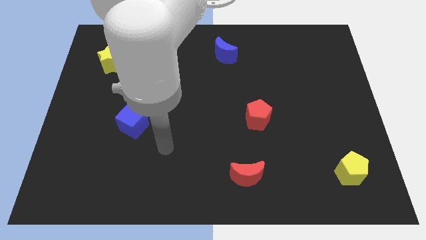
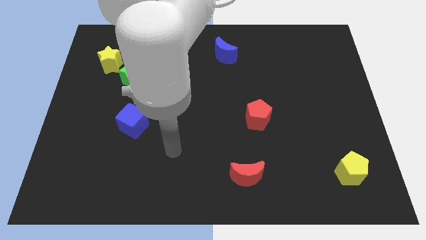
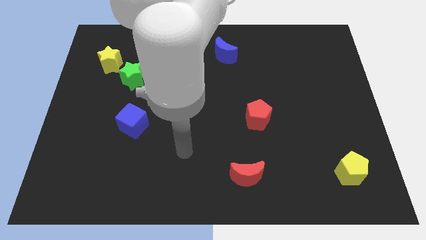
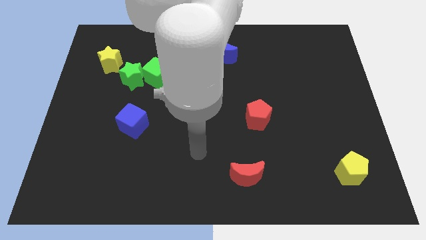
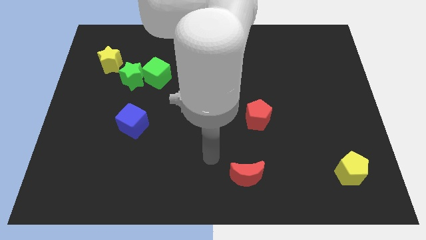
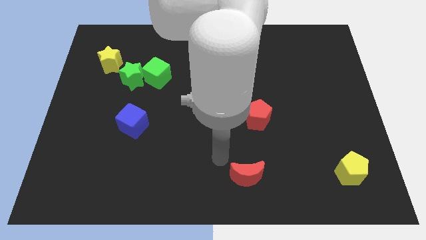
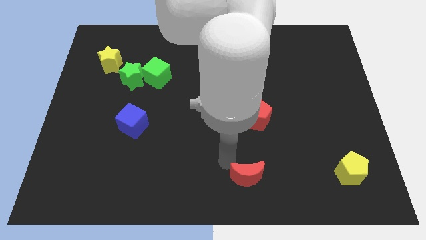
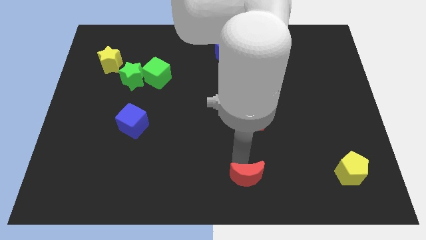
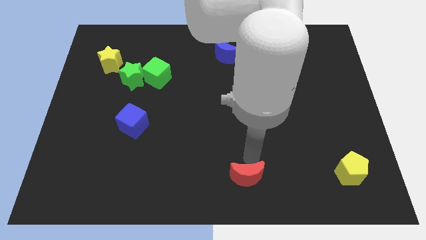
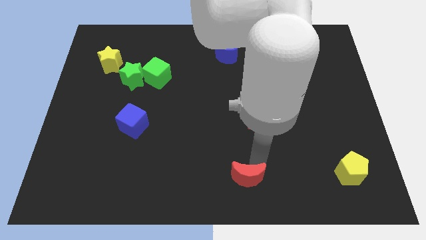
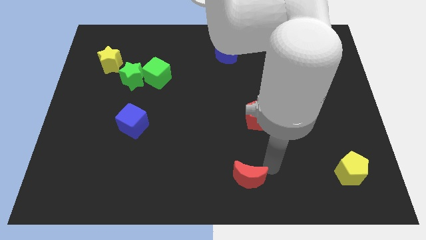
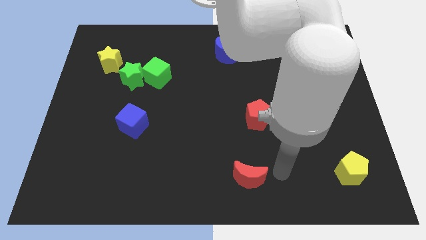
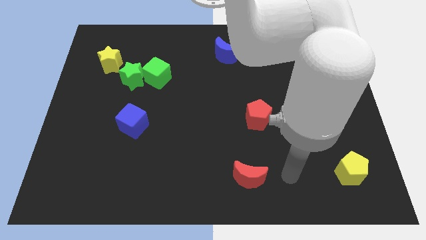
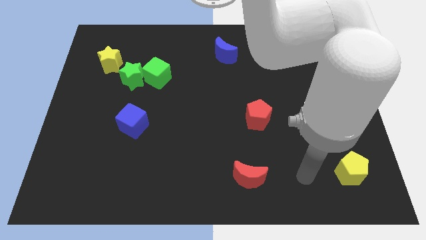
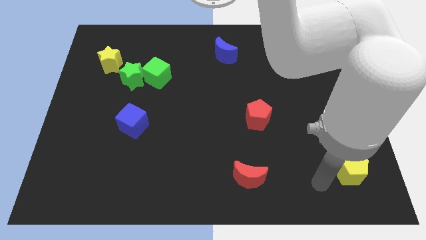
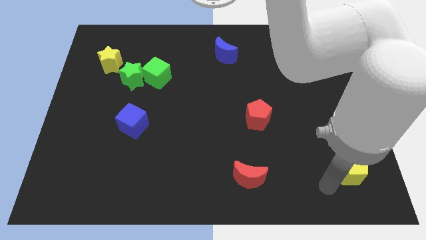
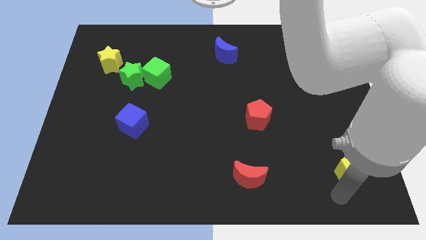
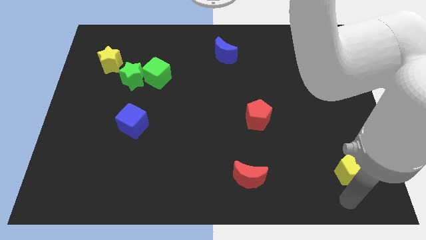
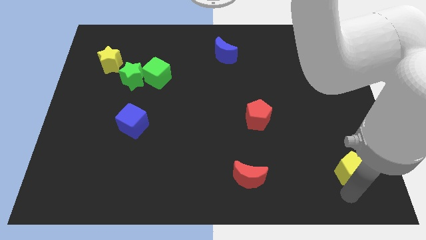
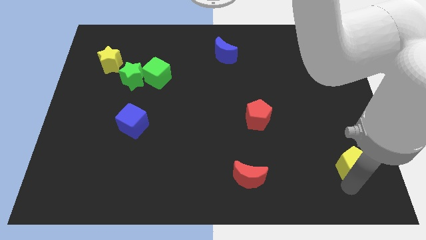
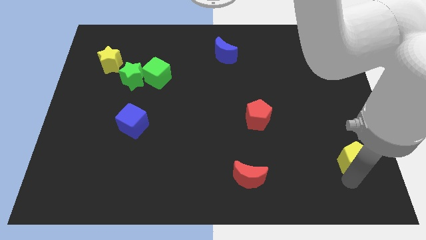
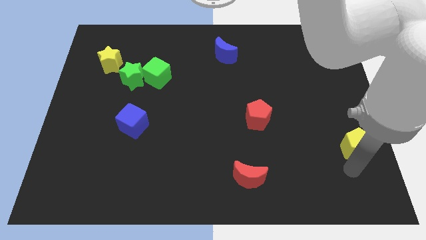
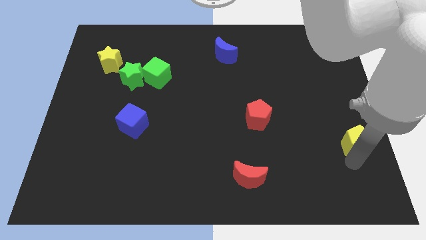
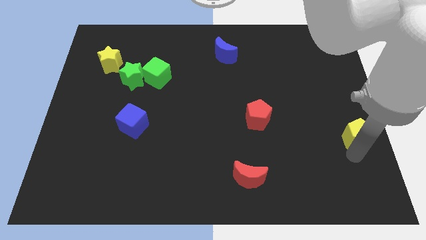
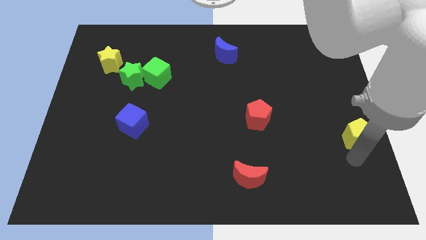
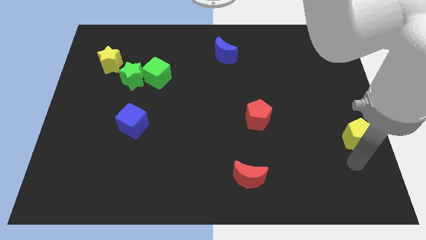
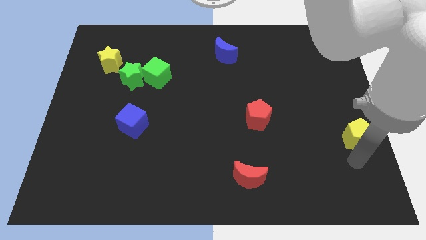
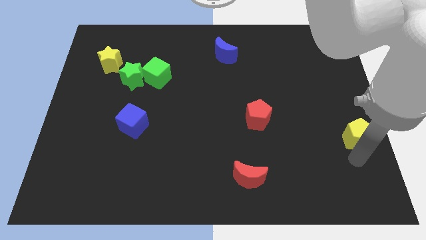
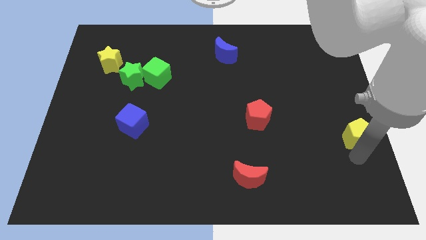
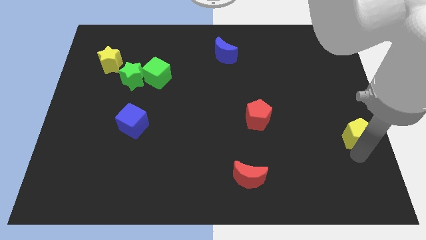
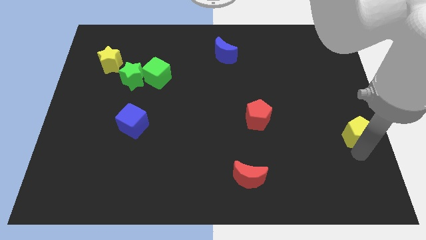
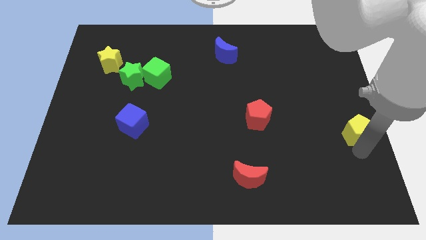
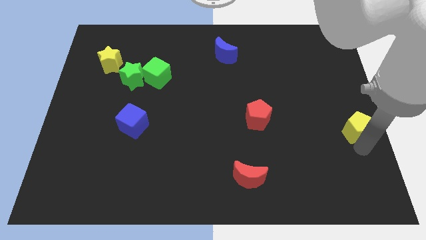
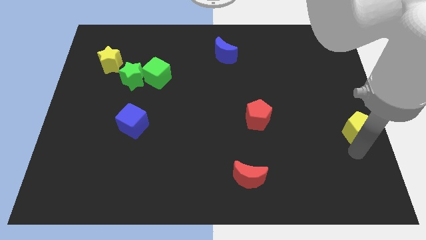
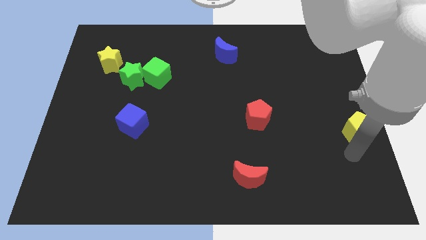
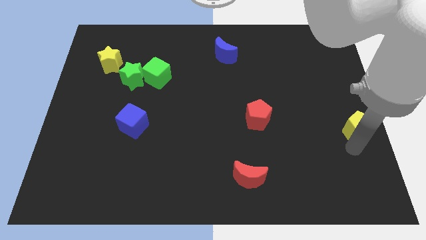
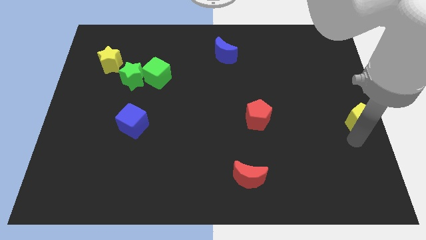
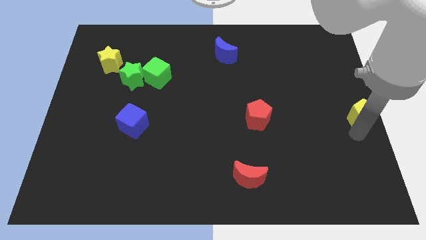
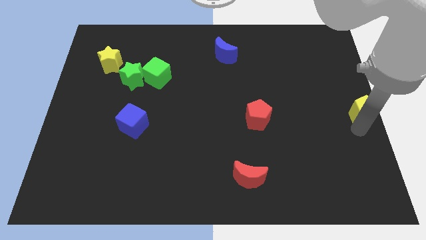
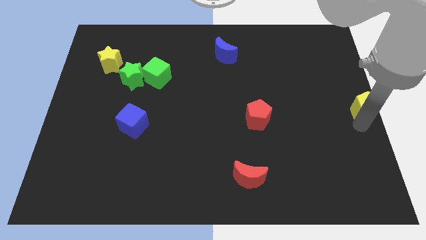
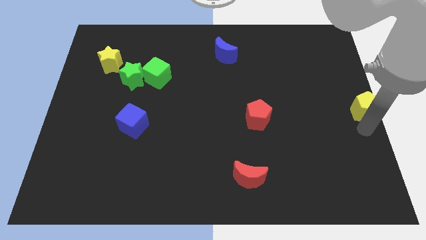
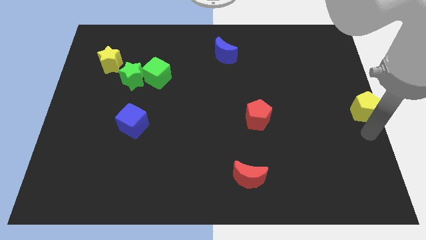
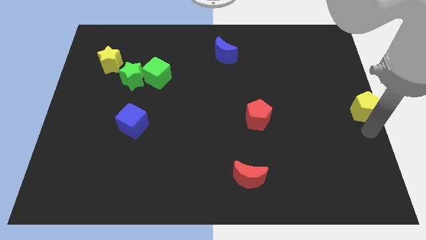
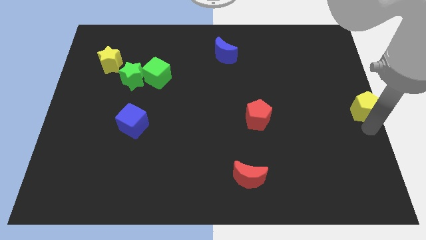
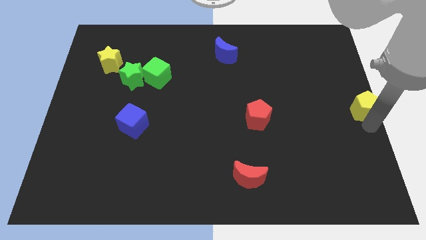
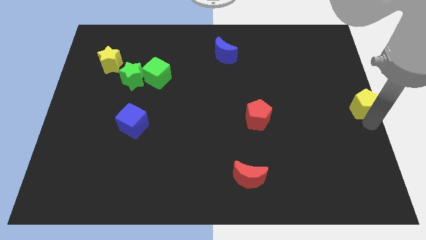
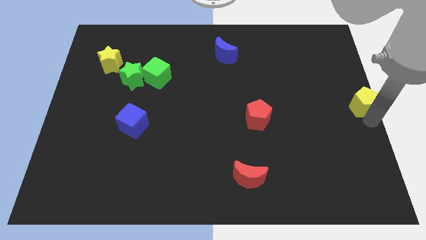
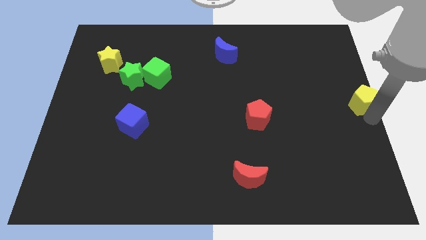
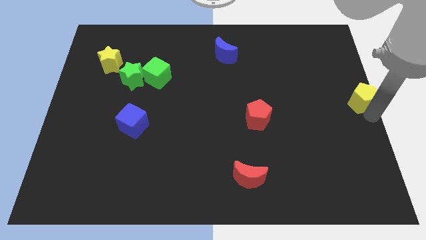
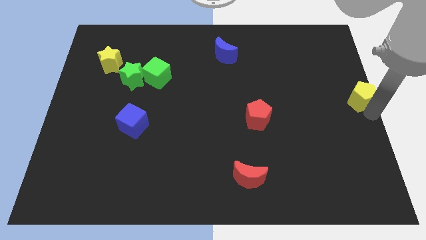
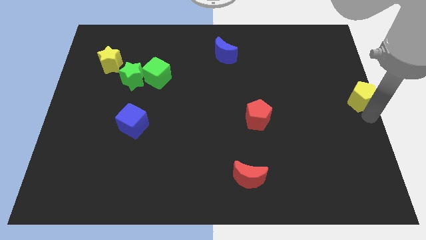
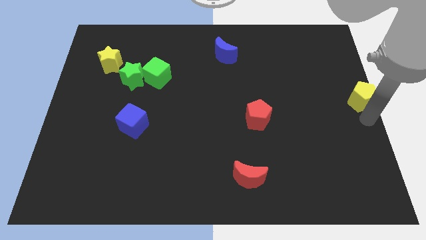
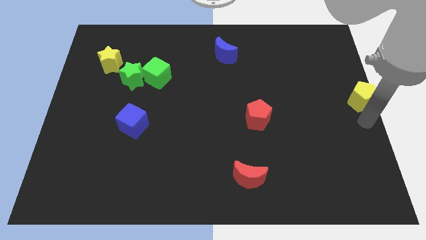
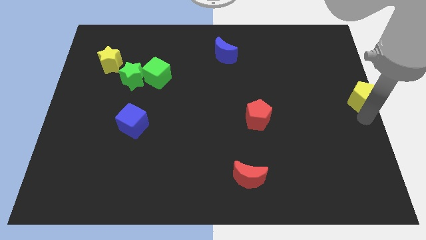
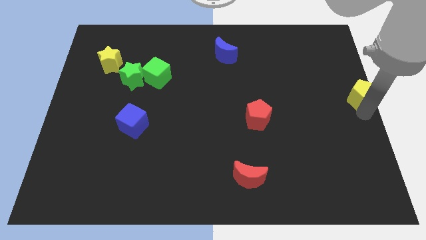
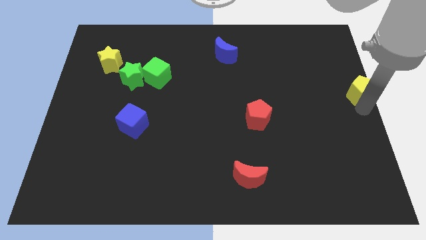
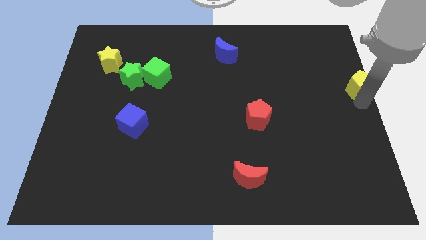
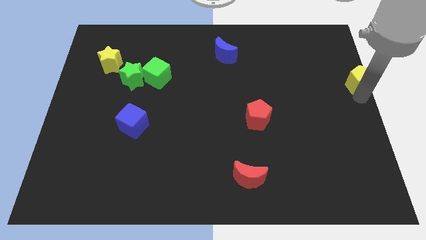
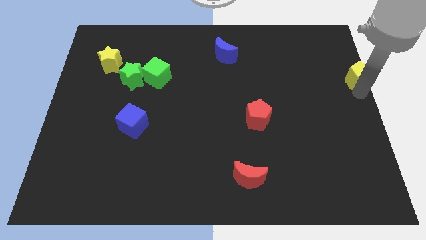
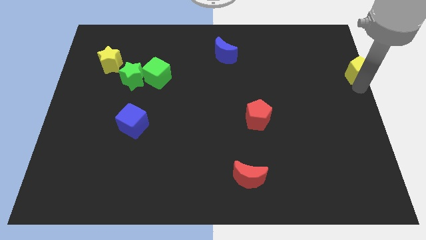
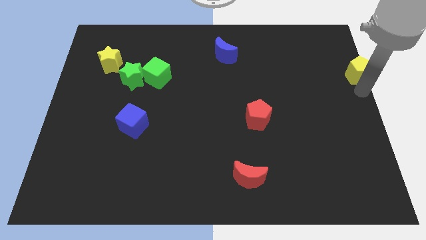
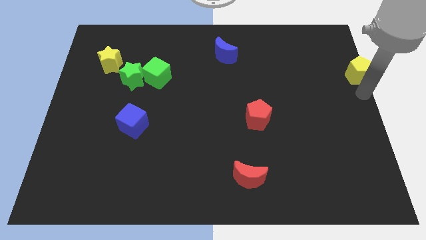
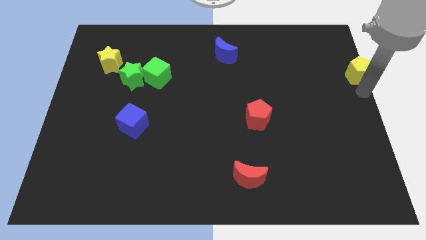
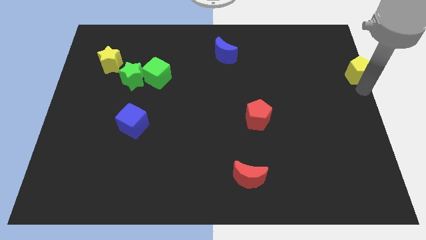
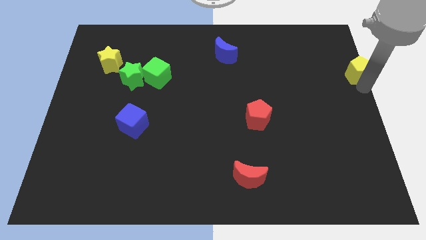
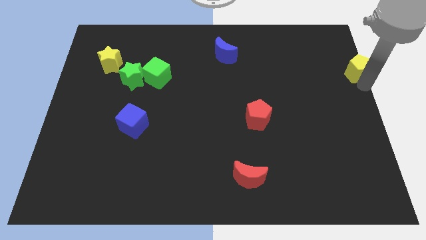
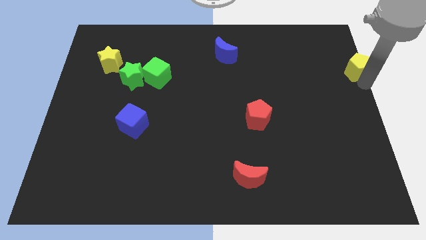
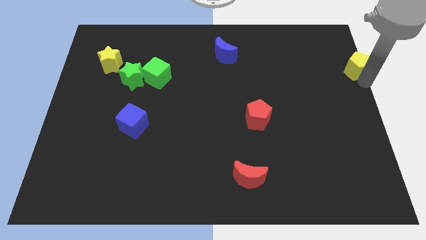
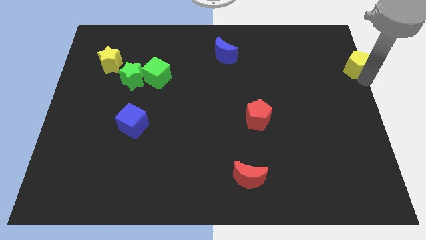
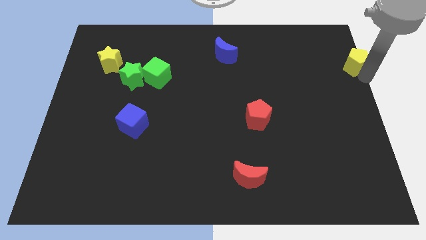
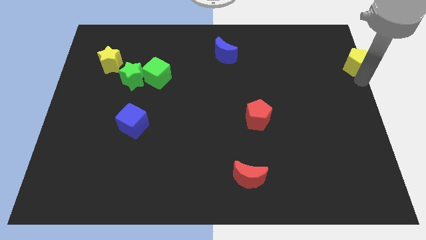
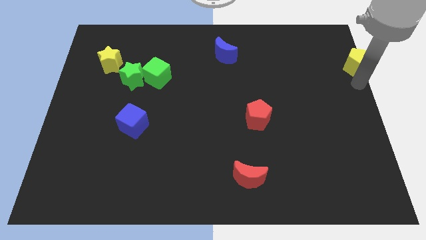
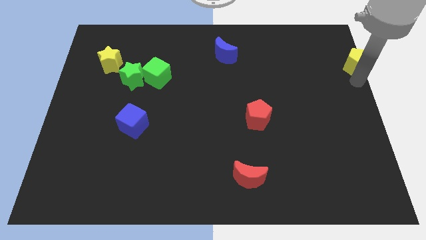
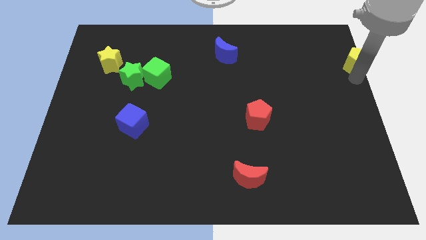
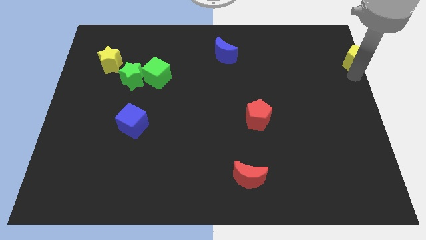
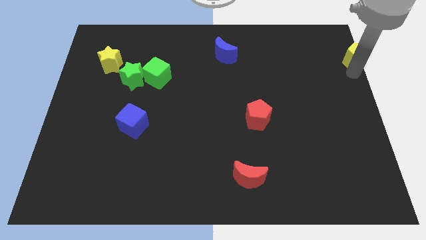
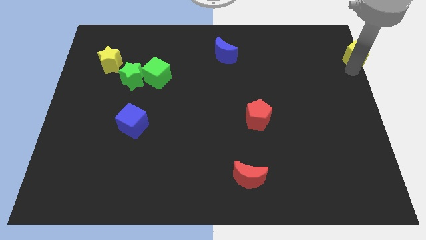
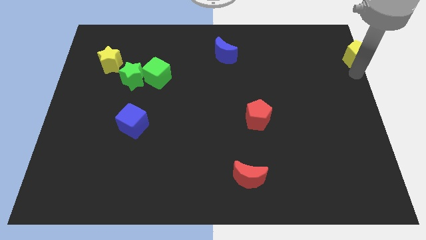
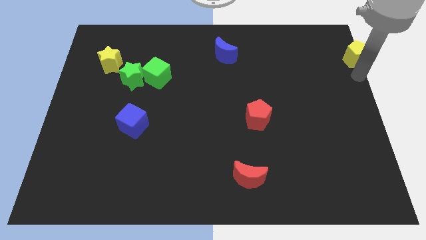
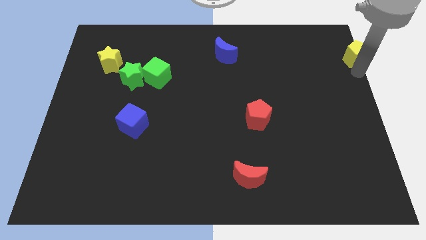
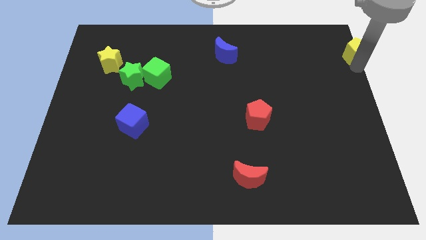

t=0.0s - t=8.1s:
put the yellow pentagon to the top right corner
